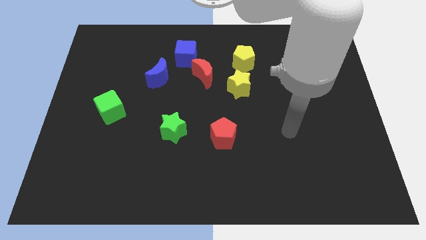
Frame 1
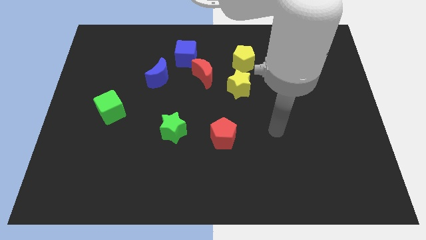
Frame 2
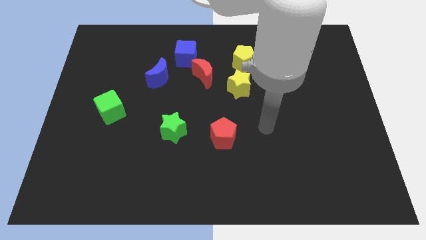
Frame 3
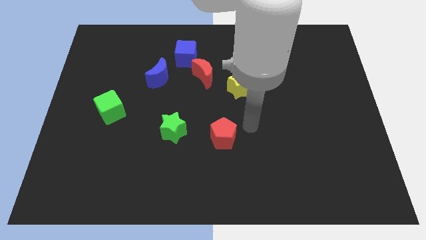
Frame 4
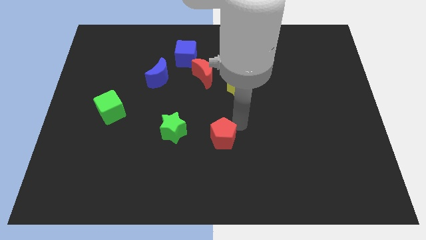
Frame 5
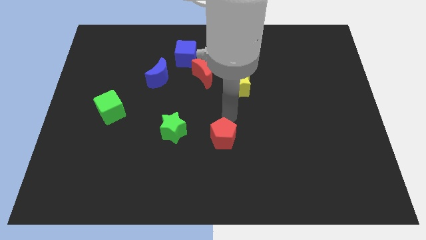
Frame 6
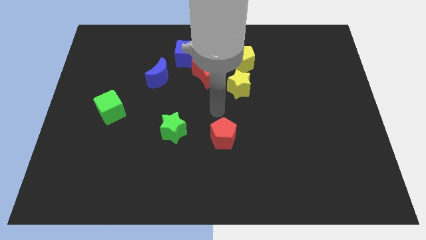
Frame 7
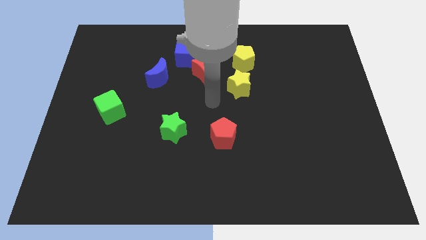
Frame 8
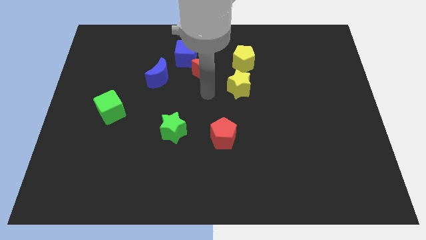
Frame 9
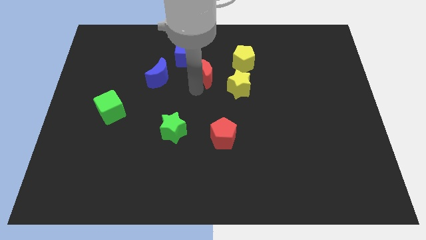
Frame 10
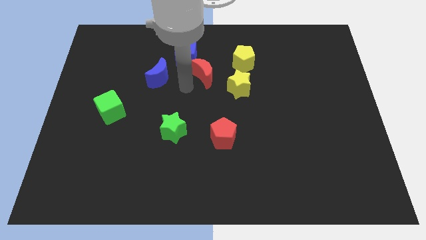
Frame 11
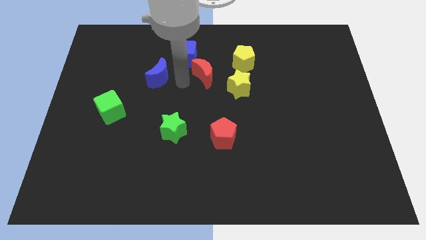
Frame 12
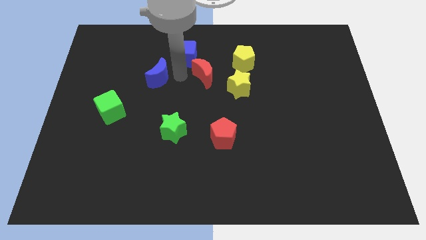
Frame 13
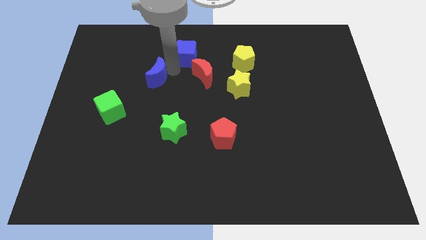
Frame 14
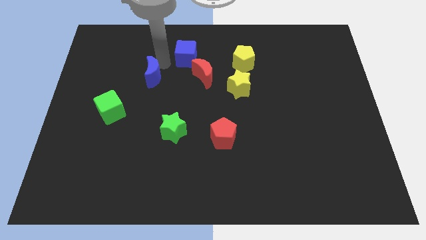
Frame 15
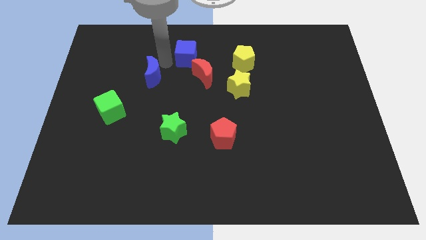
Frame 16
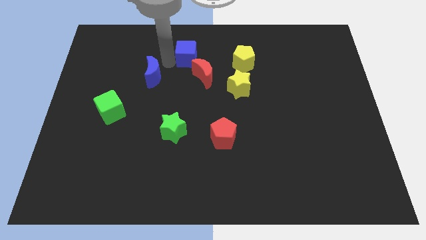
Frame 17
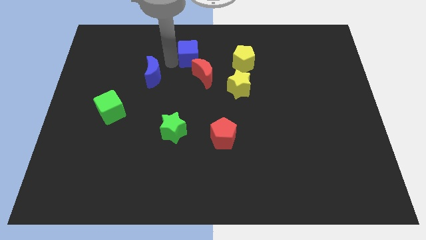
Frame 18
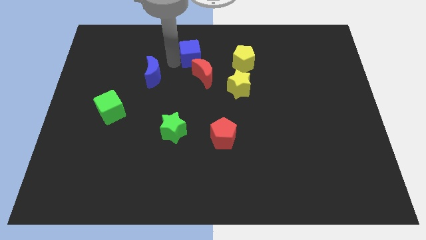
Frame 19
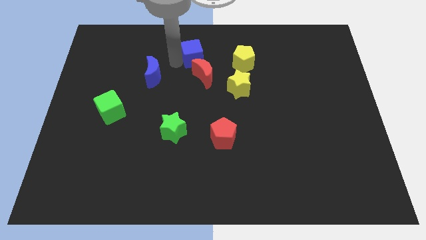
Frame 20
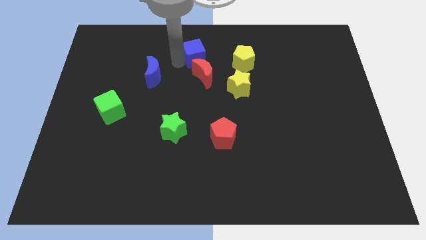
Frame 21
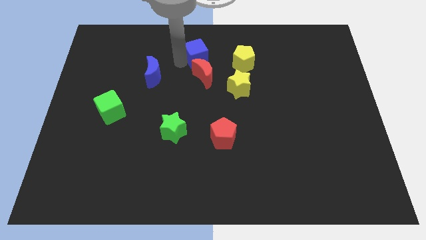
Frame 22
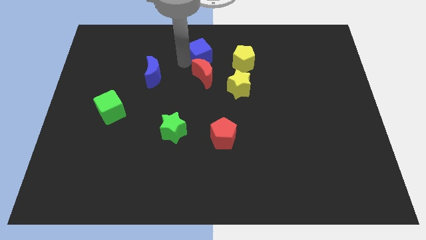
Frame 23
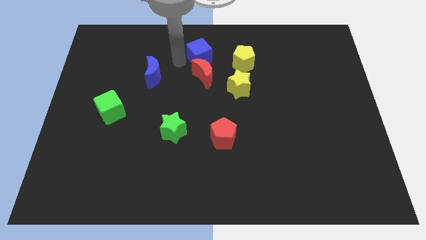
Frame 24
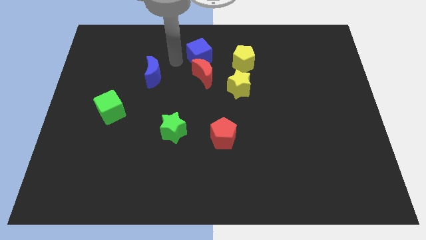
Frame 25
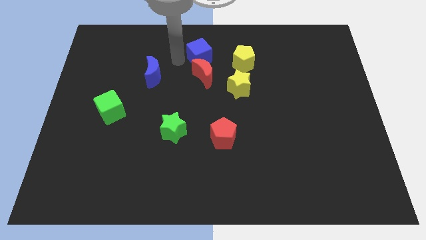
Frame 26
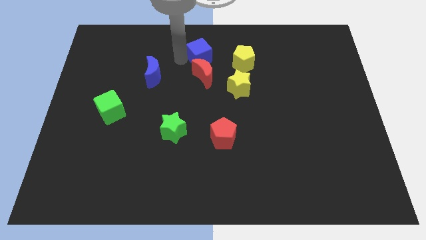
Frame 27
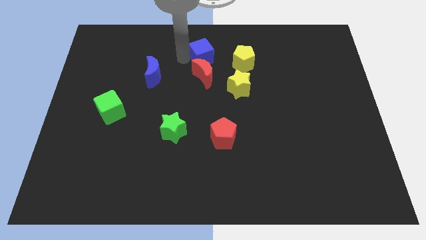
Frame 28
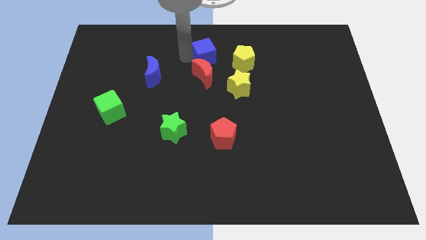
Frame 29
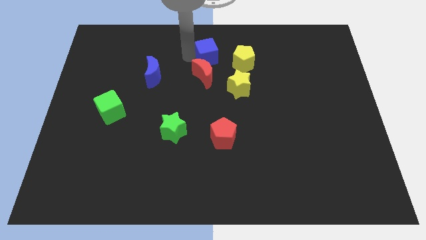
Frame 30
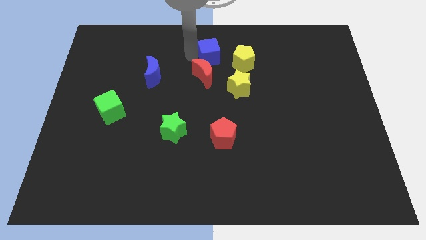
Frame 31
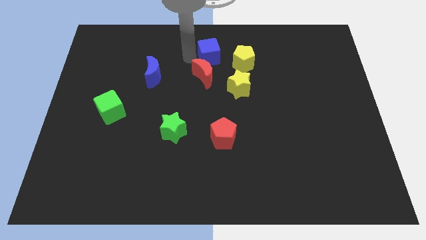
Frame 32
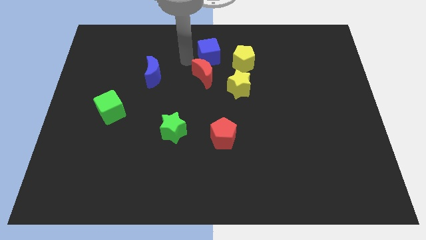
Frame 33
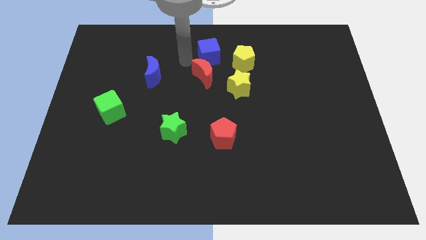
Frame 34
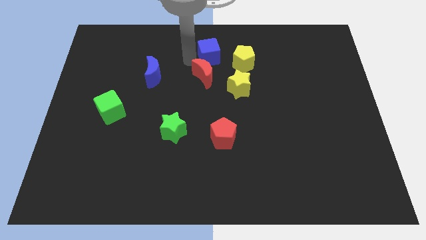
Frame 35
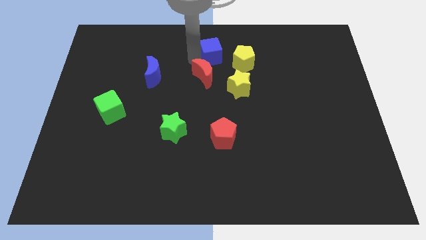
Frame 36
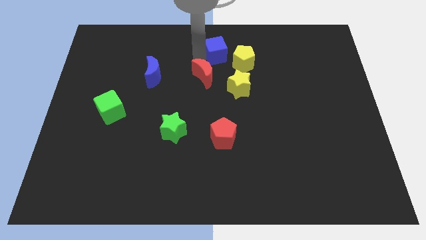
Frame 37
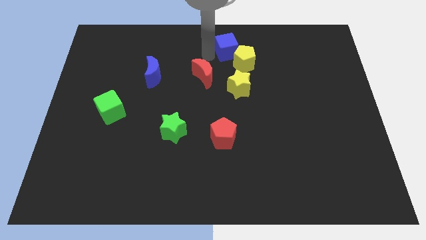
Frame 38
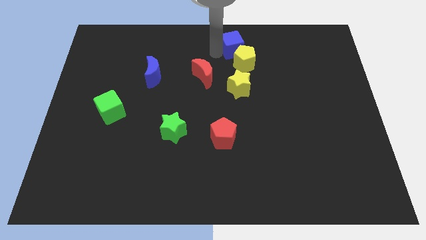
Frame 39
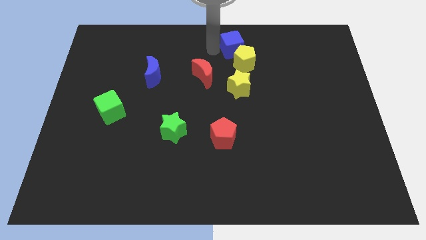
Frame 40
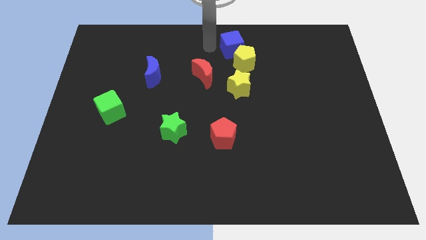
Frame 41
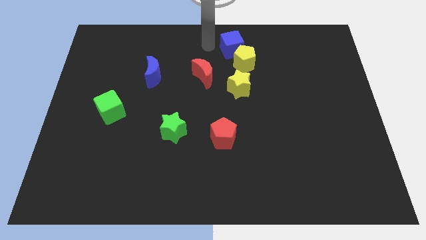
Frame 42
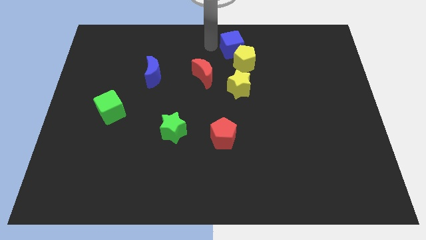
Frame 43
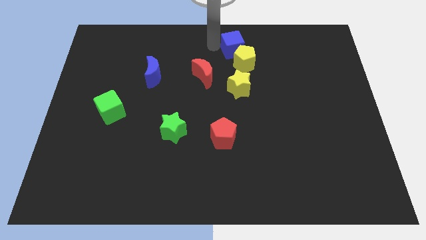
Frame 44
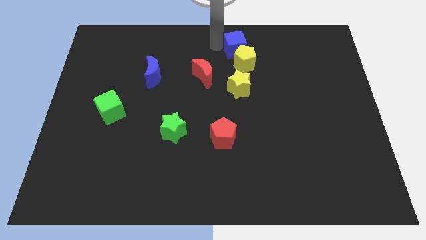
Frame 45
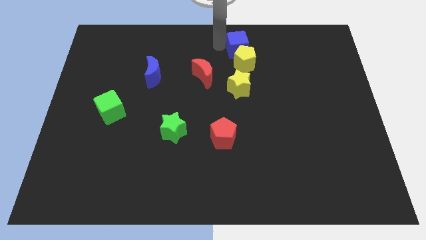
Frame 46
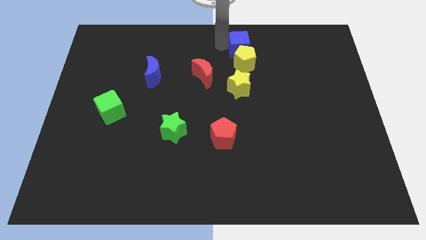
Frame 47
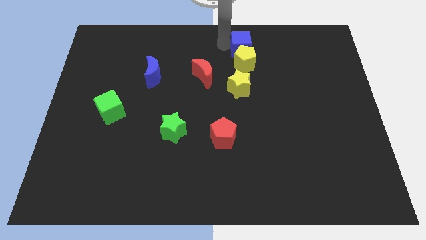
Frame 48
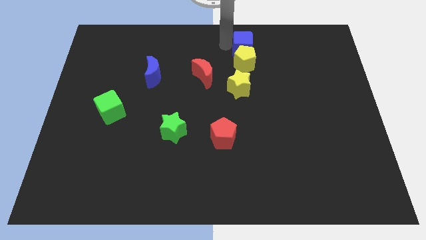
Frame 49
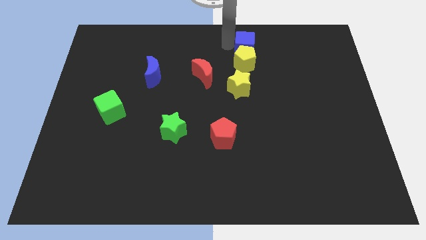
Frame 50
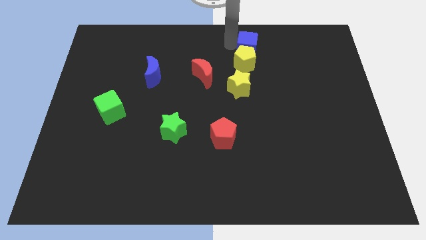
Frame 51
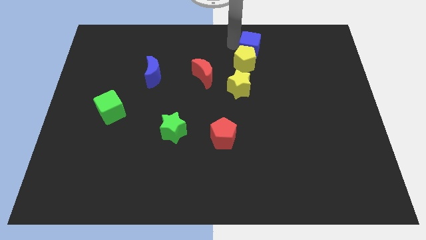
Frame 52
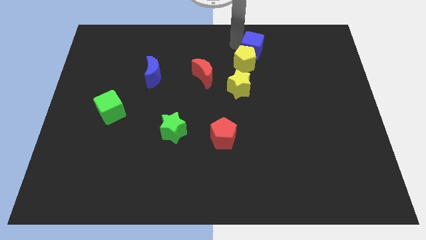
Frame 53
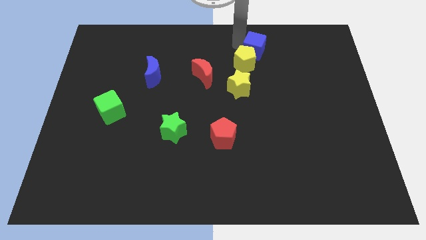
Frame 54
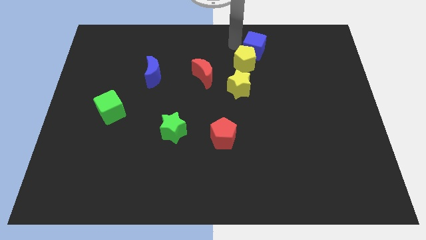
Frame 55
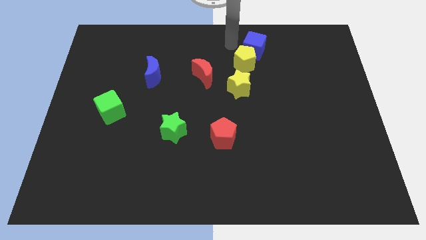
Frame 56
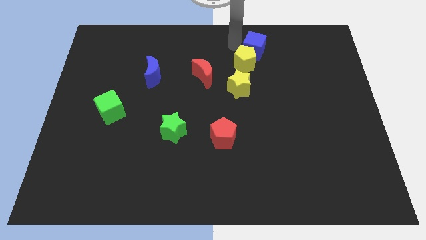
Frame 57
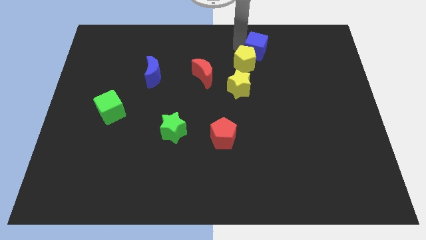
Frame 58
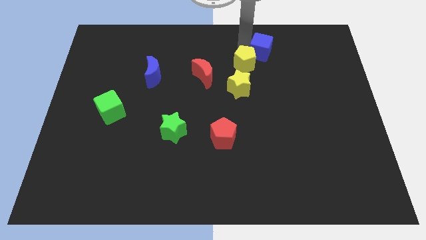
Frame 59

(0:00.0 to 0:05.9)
push the blue cube to the right

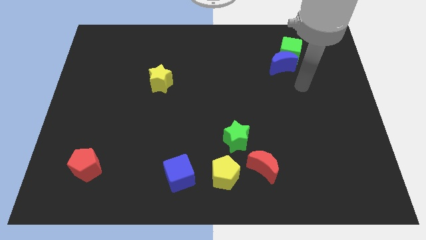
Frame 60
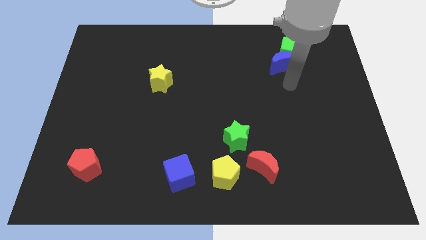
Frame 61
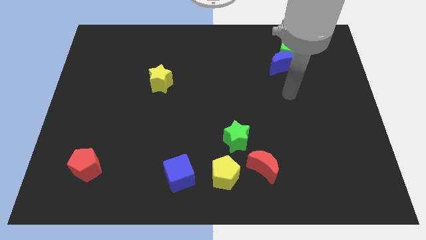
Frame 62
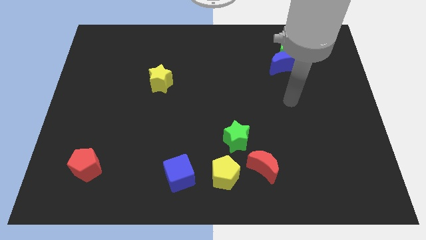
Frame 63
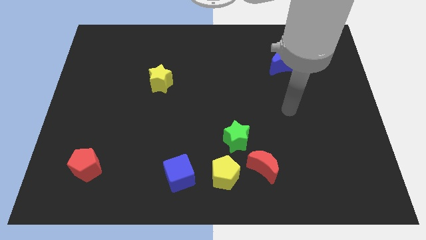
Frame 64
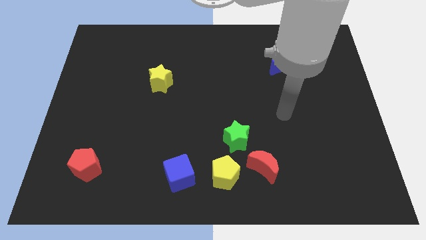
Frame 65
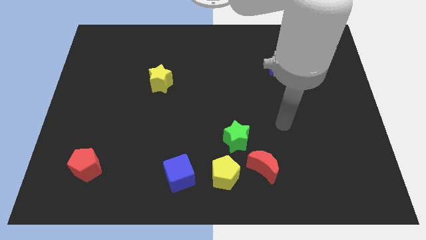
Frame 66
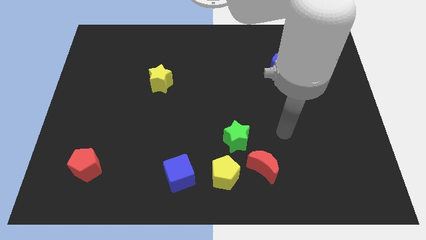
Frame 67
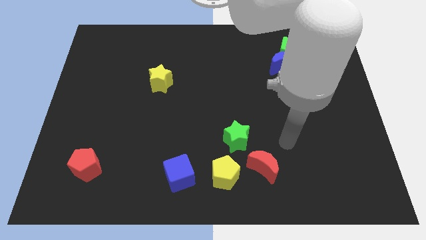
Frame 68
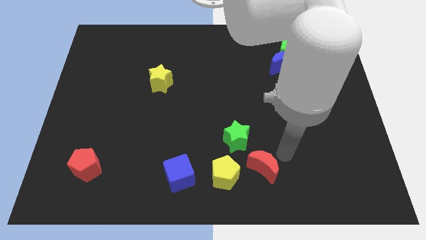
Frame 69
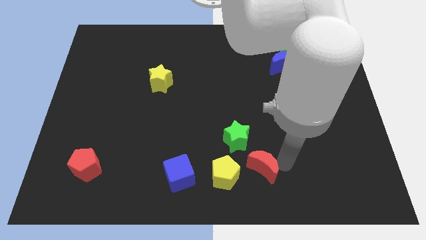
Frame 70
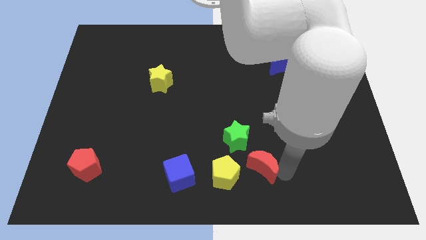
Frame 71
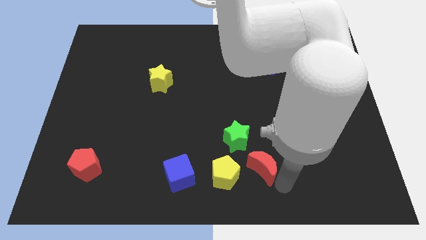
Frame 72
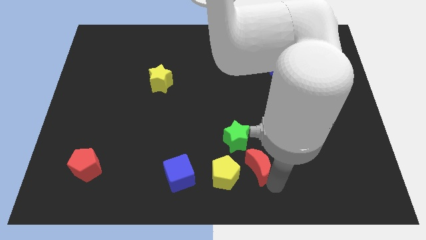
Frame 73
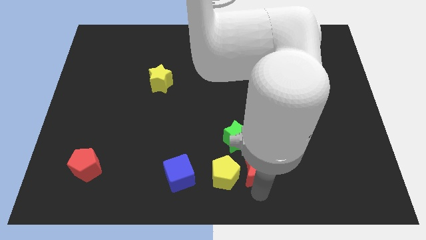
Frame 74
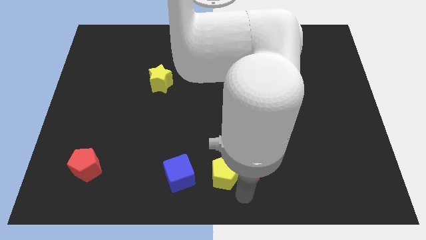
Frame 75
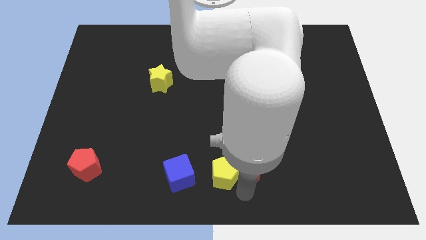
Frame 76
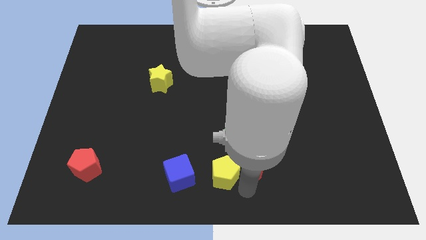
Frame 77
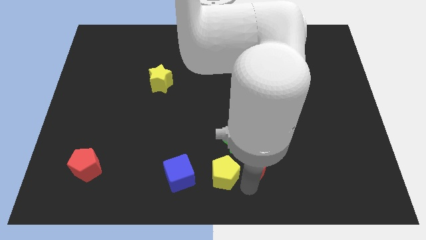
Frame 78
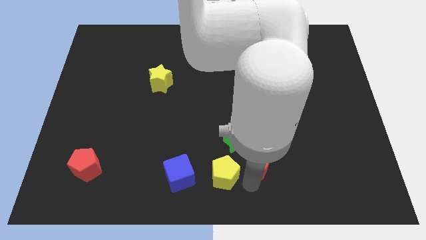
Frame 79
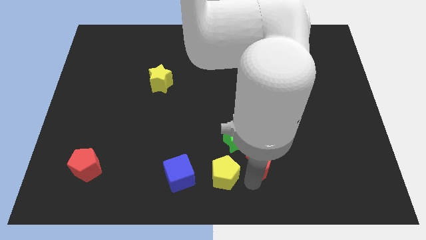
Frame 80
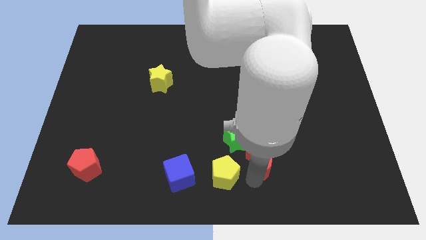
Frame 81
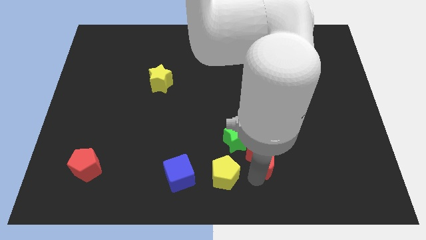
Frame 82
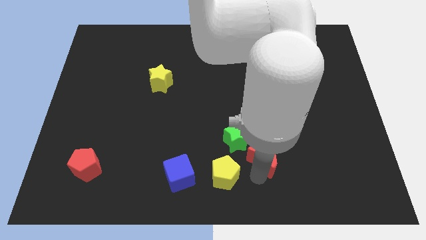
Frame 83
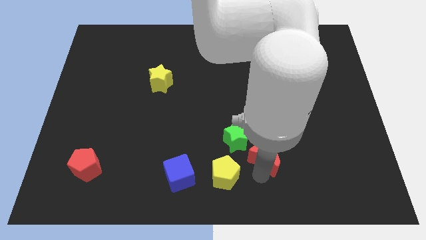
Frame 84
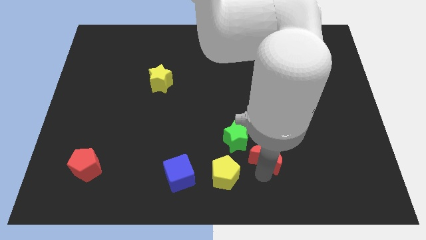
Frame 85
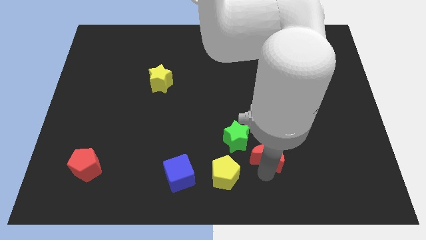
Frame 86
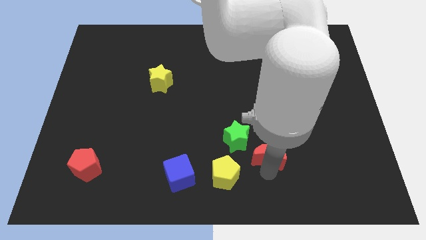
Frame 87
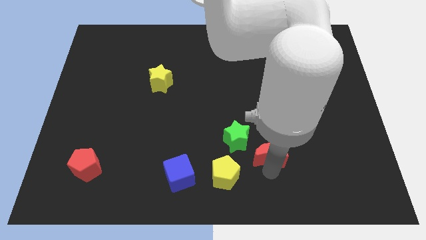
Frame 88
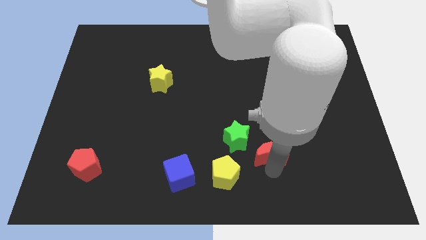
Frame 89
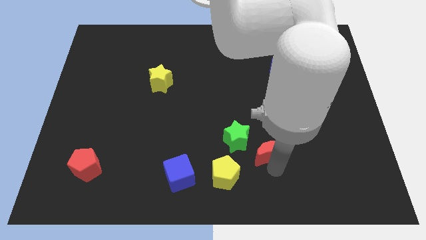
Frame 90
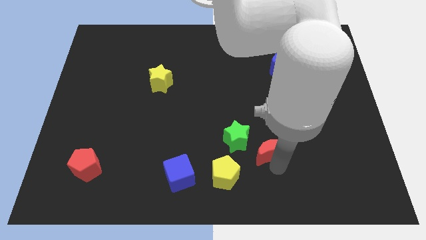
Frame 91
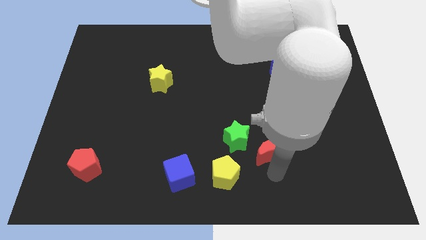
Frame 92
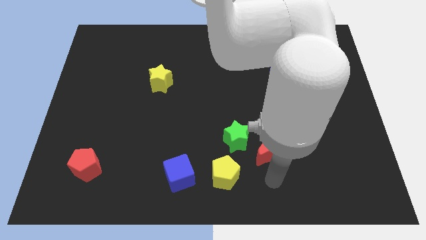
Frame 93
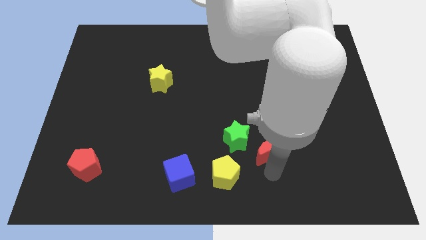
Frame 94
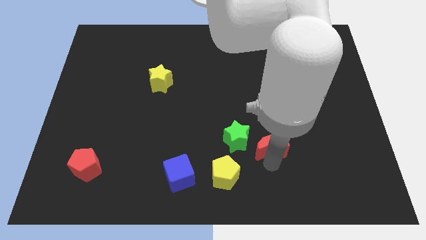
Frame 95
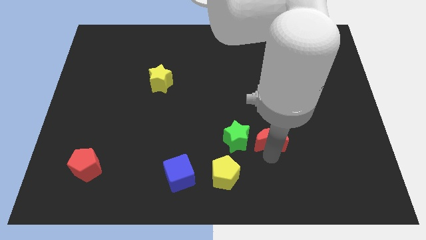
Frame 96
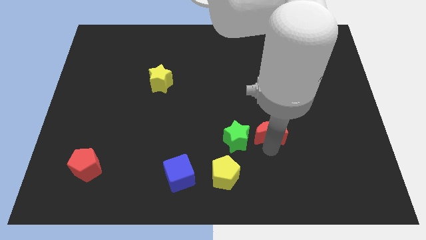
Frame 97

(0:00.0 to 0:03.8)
slightly move the red moon upwards
